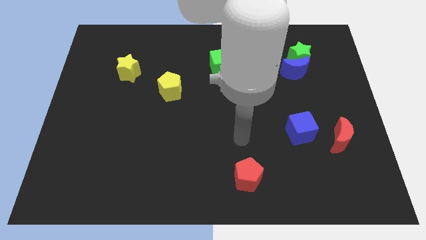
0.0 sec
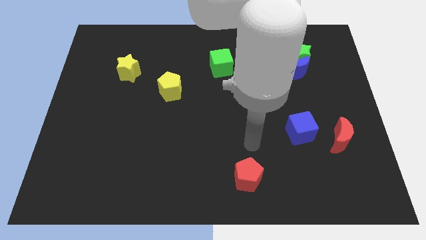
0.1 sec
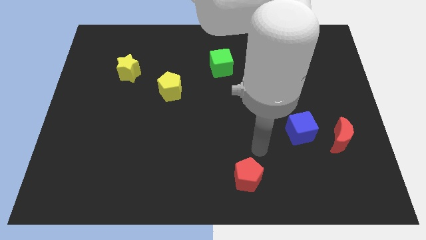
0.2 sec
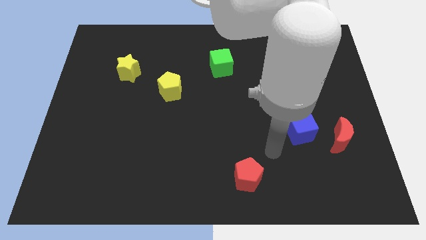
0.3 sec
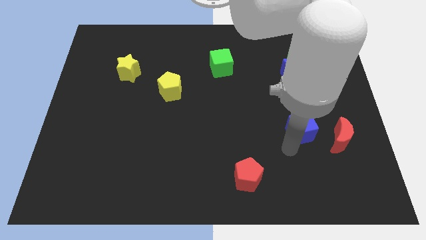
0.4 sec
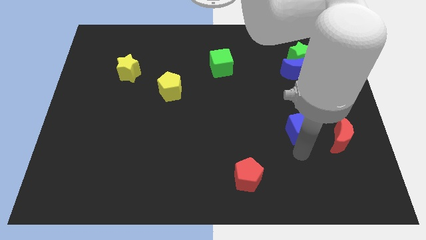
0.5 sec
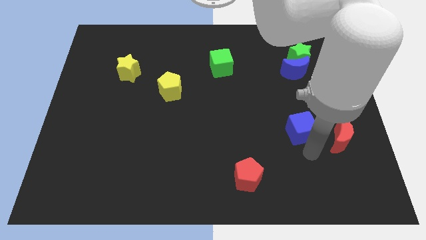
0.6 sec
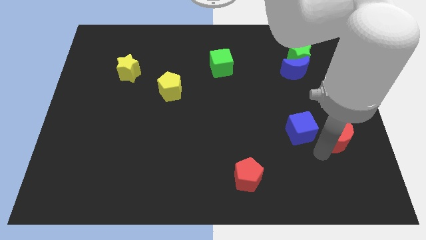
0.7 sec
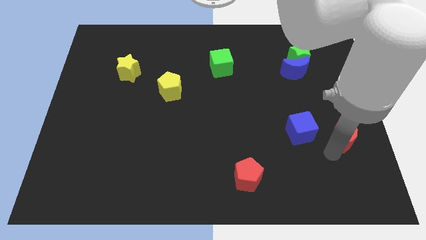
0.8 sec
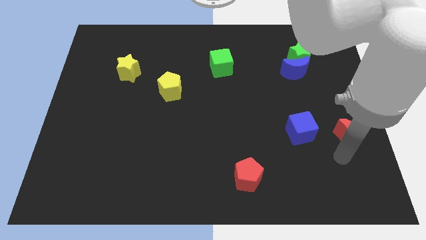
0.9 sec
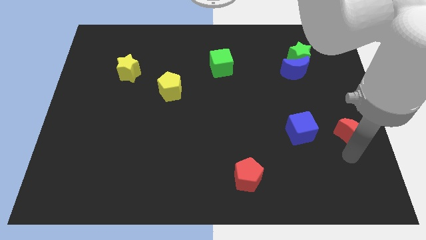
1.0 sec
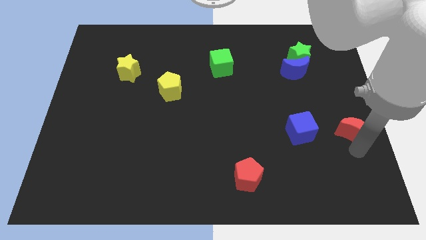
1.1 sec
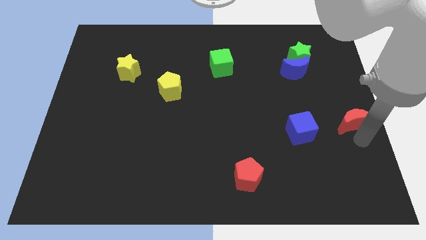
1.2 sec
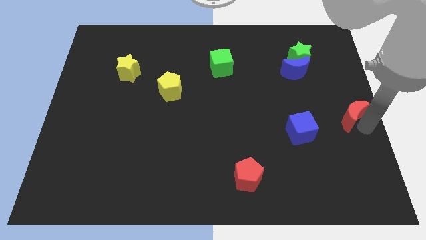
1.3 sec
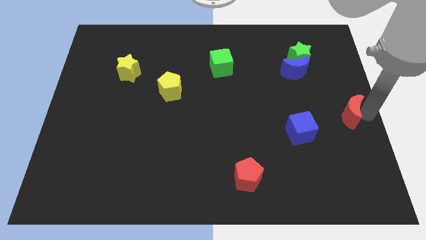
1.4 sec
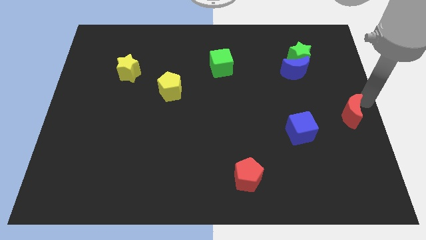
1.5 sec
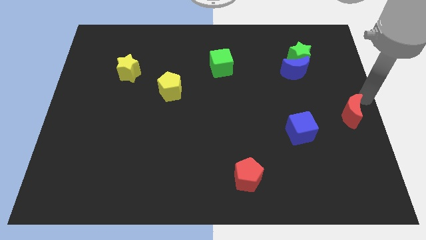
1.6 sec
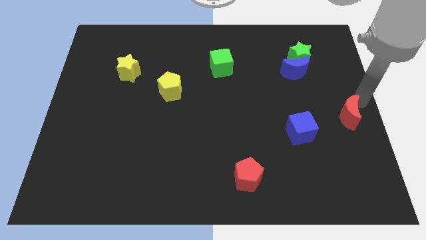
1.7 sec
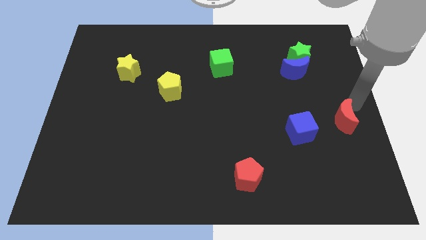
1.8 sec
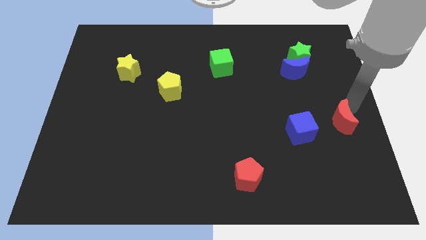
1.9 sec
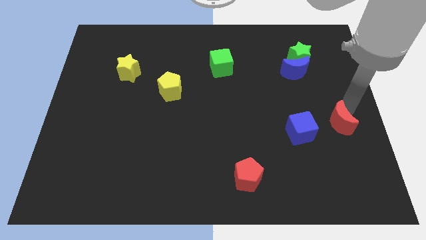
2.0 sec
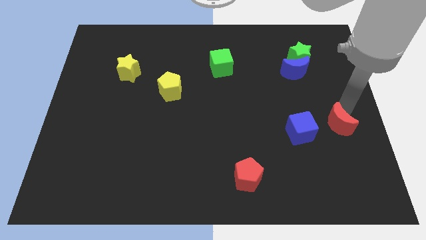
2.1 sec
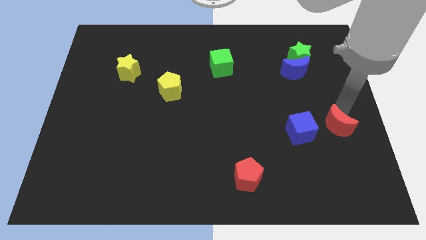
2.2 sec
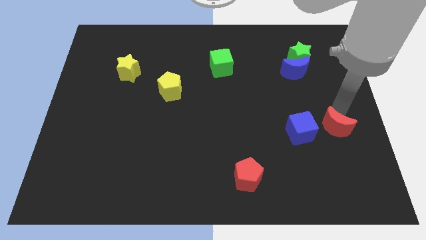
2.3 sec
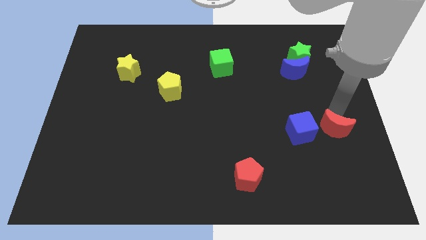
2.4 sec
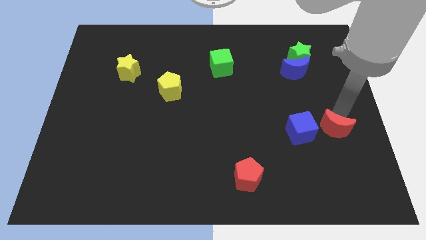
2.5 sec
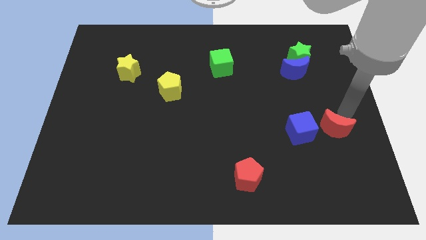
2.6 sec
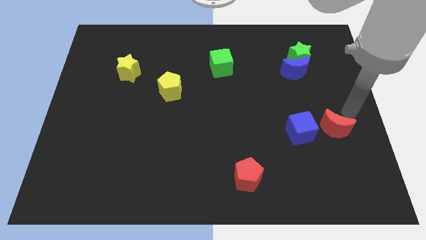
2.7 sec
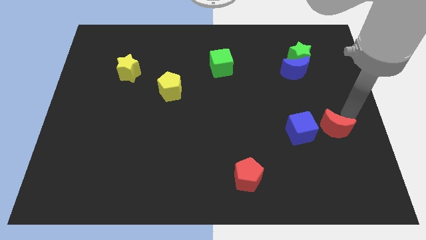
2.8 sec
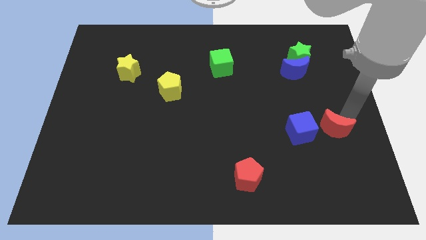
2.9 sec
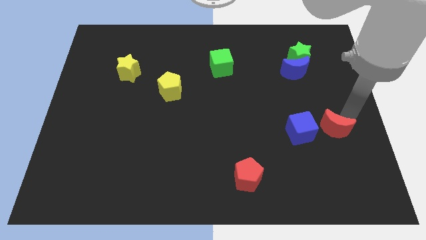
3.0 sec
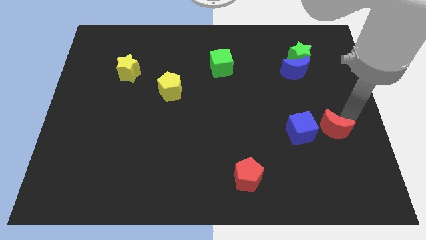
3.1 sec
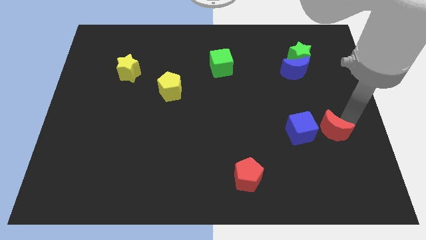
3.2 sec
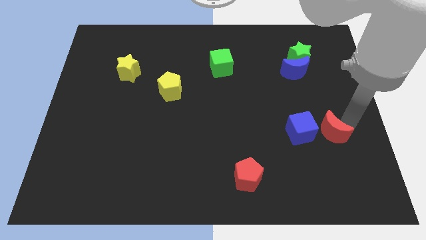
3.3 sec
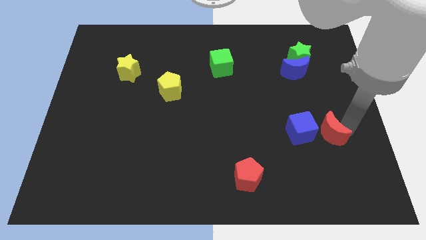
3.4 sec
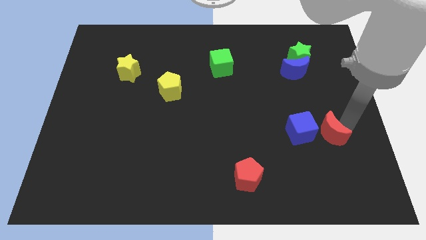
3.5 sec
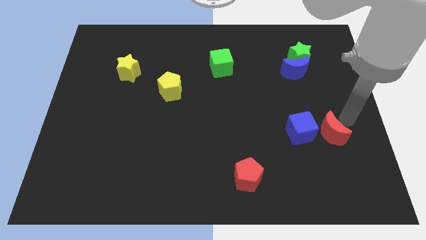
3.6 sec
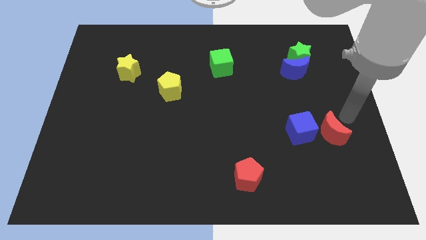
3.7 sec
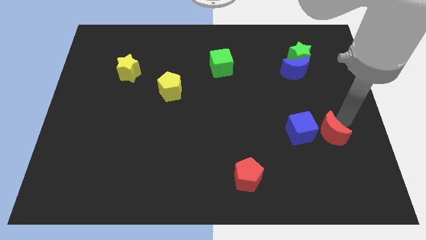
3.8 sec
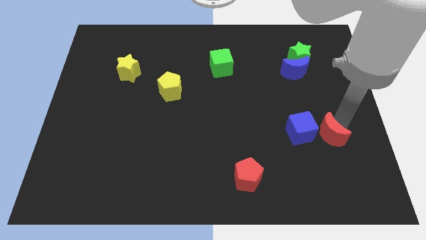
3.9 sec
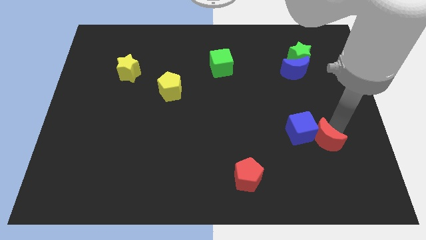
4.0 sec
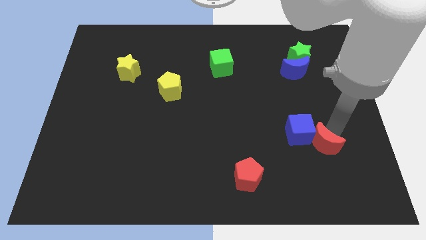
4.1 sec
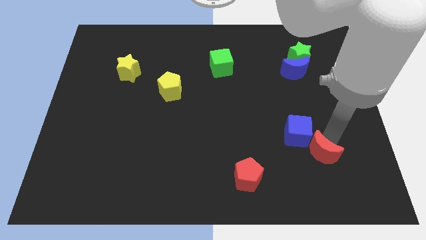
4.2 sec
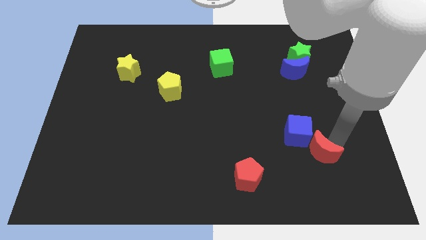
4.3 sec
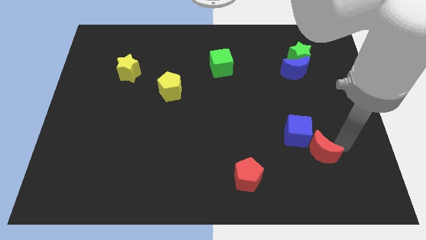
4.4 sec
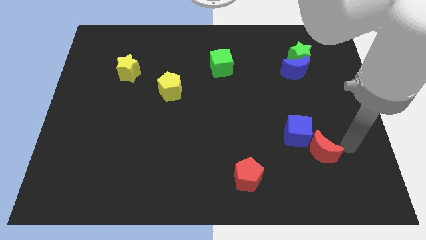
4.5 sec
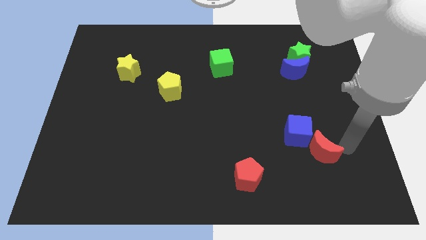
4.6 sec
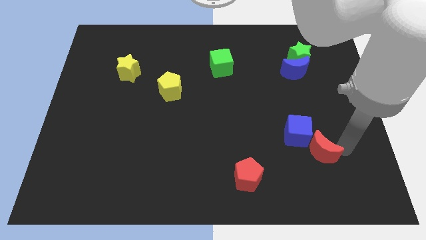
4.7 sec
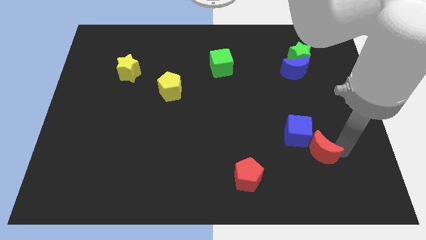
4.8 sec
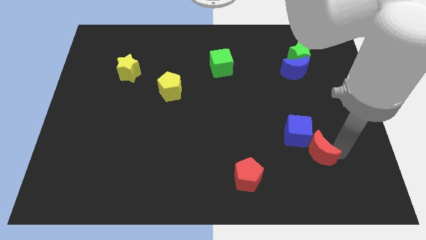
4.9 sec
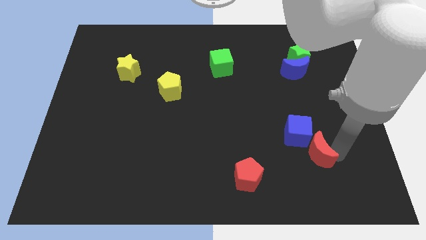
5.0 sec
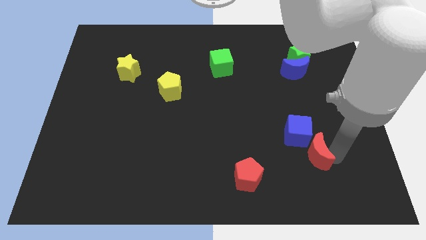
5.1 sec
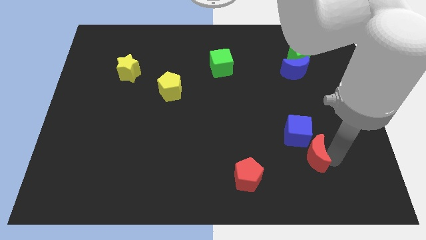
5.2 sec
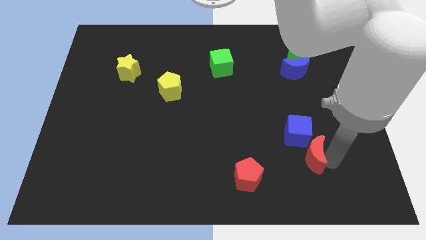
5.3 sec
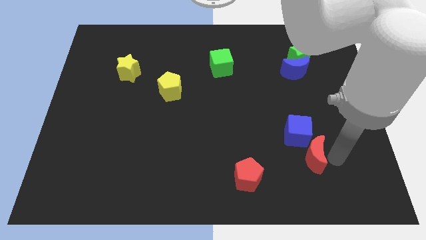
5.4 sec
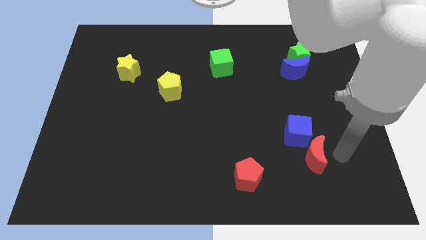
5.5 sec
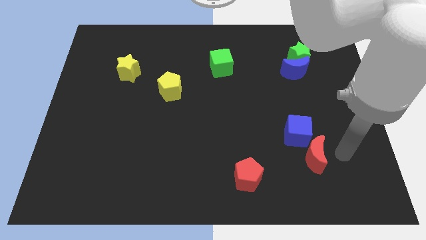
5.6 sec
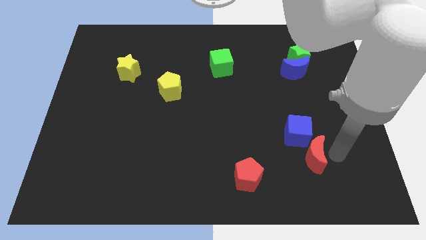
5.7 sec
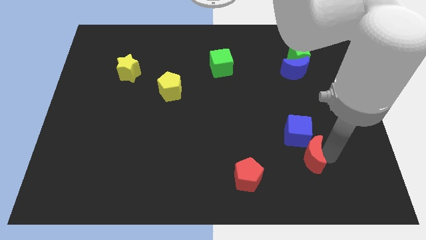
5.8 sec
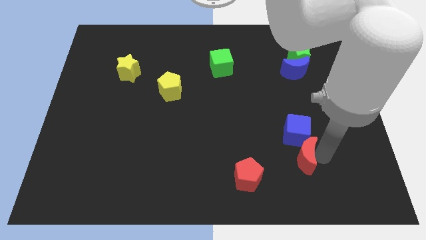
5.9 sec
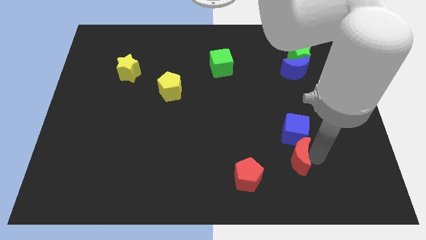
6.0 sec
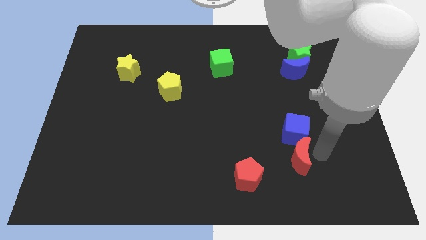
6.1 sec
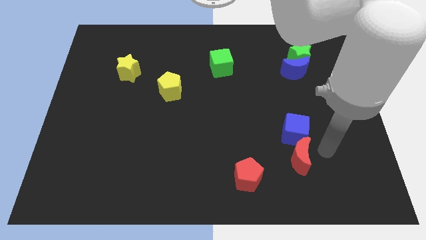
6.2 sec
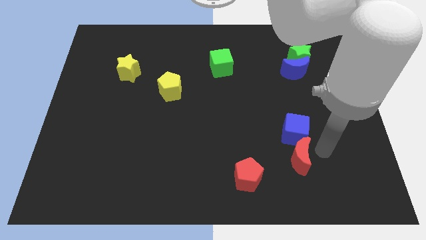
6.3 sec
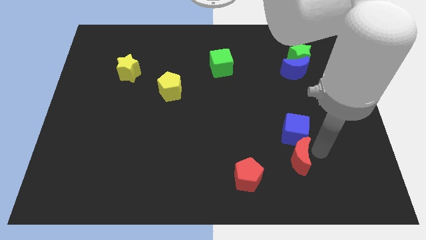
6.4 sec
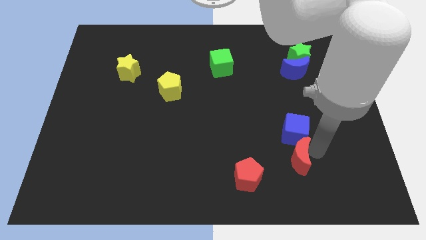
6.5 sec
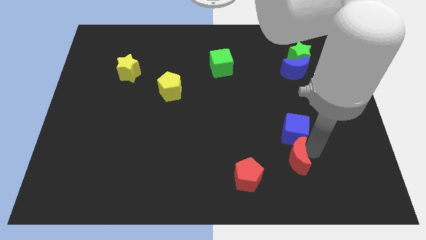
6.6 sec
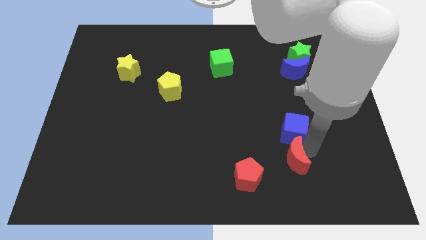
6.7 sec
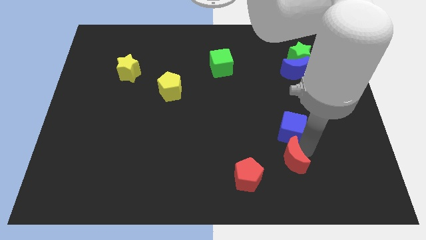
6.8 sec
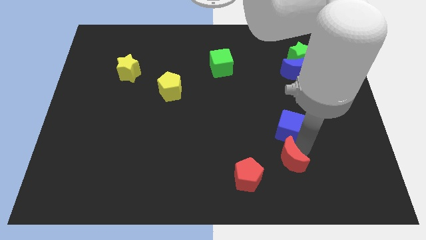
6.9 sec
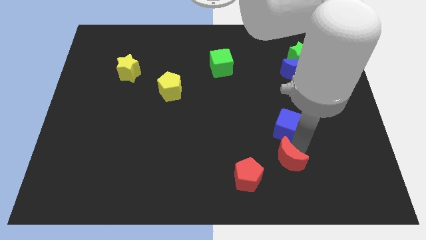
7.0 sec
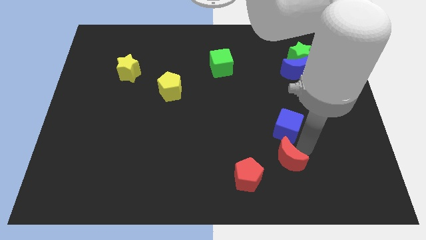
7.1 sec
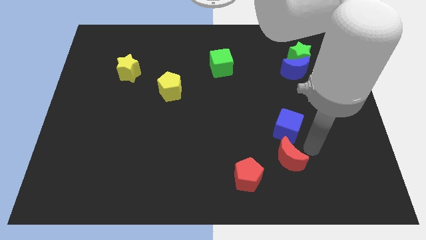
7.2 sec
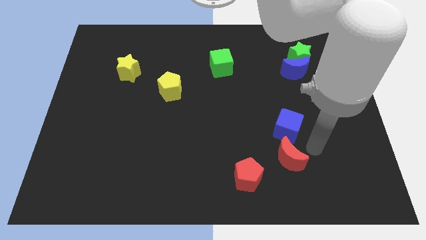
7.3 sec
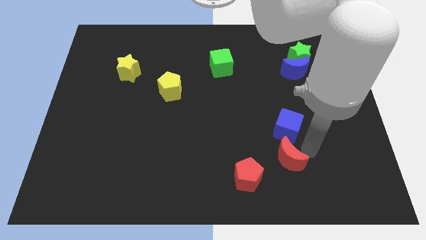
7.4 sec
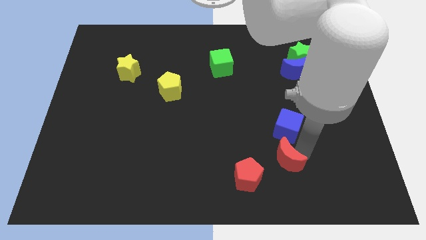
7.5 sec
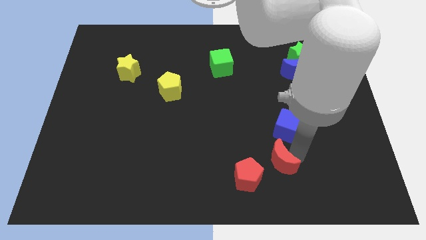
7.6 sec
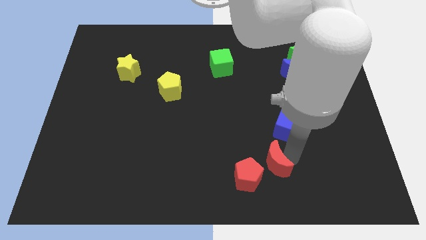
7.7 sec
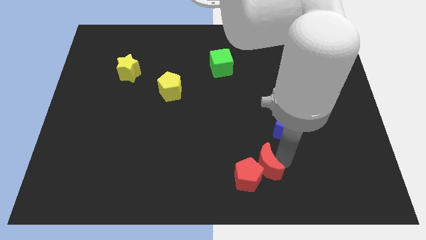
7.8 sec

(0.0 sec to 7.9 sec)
put the red moon next to the red pentagon
